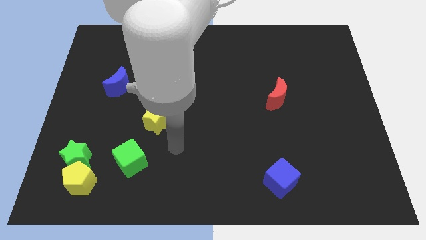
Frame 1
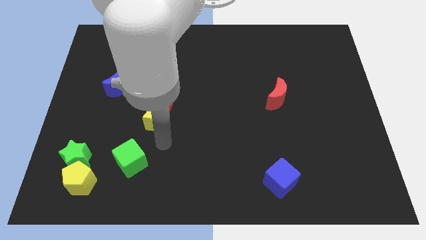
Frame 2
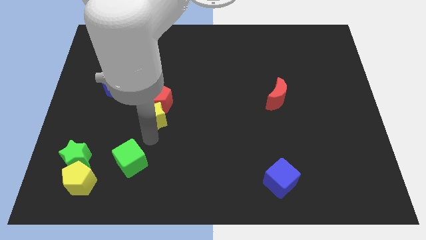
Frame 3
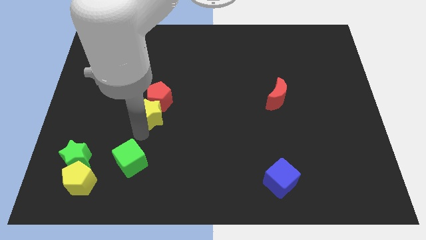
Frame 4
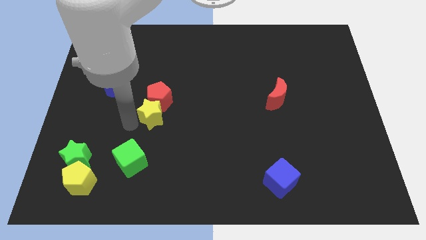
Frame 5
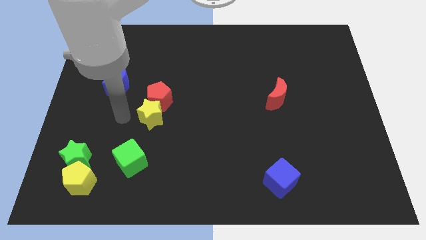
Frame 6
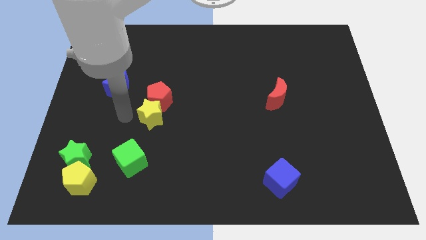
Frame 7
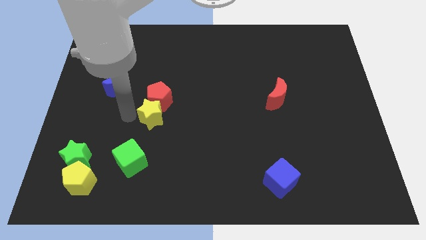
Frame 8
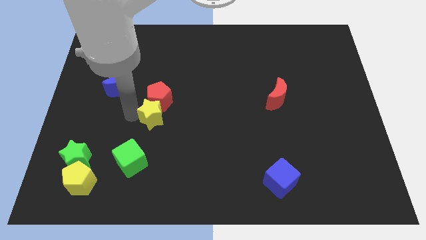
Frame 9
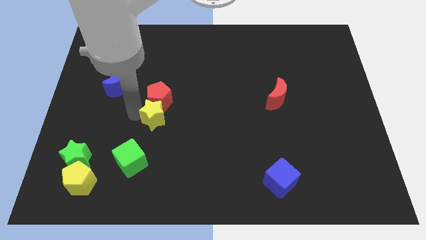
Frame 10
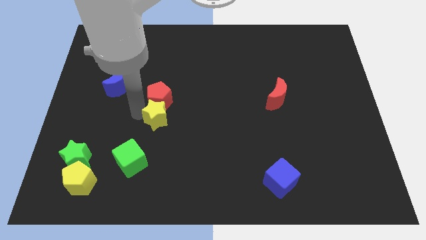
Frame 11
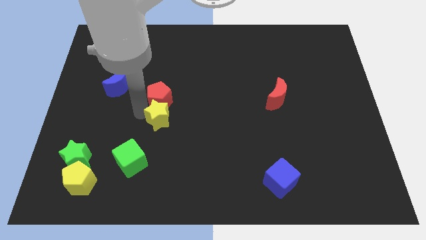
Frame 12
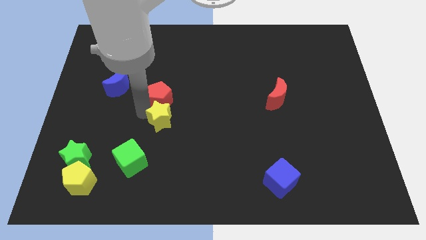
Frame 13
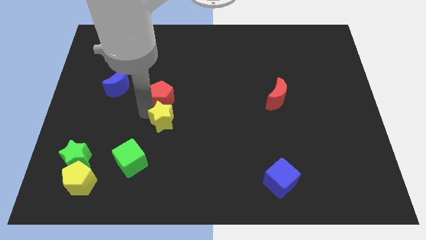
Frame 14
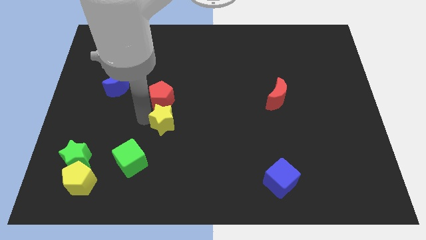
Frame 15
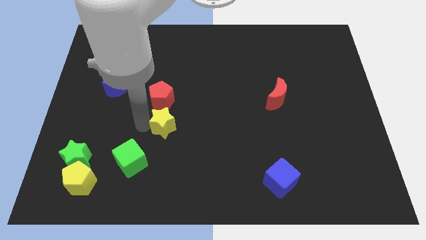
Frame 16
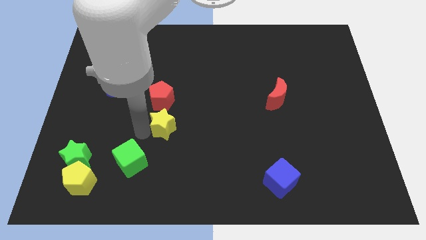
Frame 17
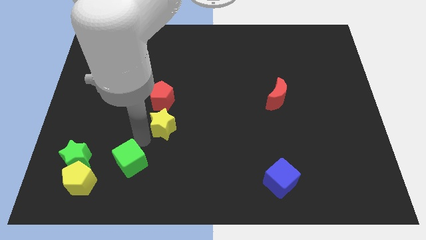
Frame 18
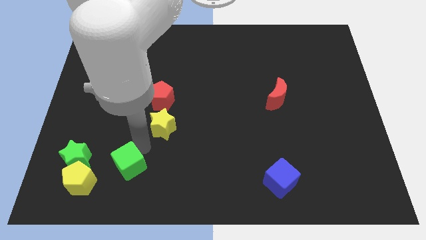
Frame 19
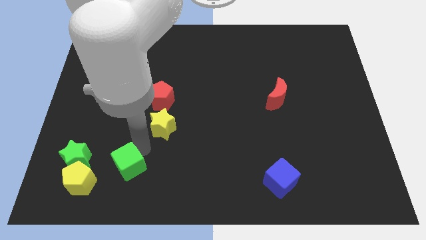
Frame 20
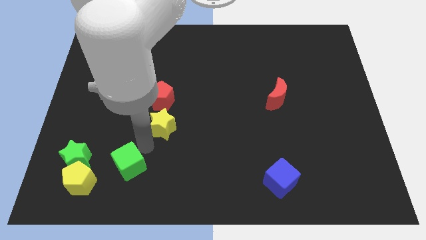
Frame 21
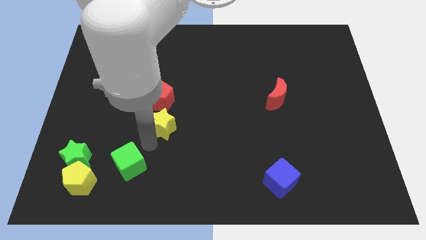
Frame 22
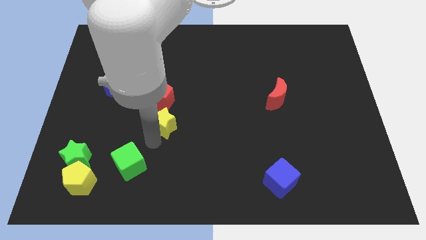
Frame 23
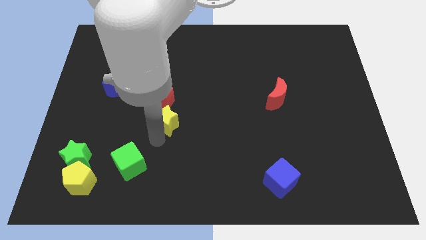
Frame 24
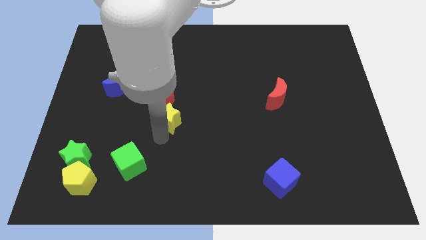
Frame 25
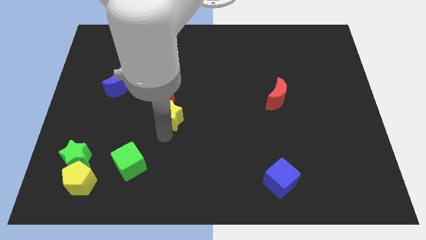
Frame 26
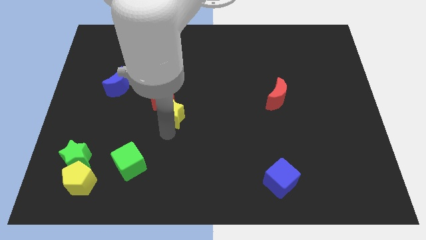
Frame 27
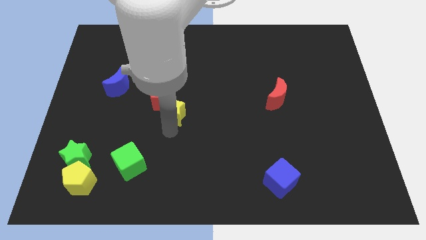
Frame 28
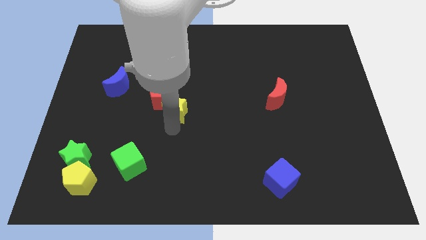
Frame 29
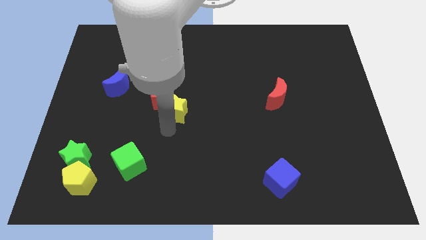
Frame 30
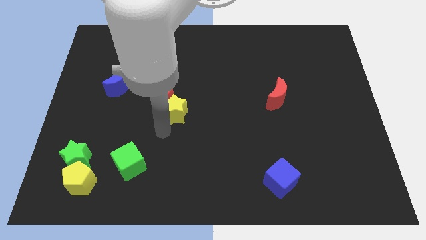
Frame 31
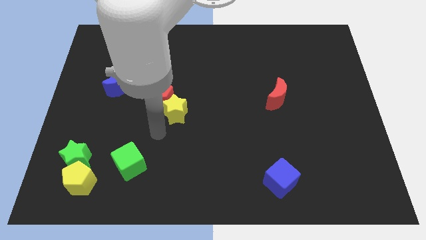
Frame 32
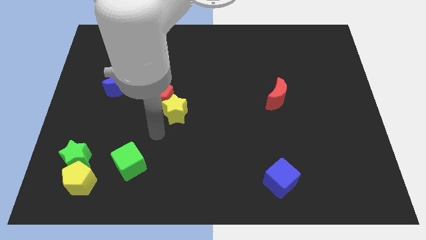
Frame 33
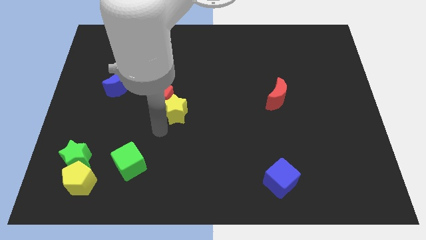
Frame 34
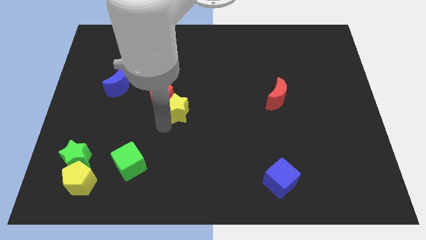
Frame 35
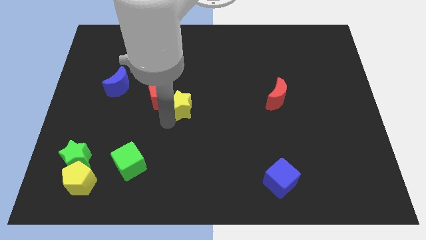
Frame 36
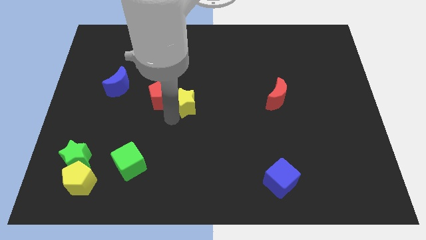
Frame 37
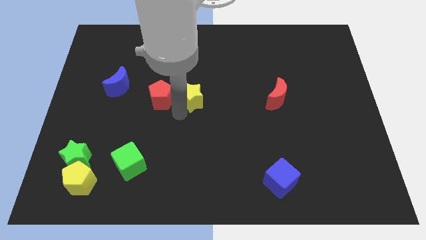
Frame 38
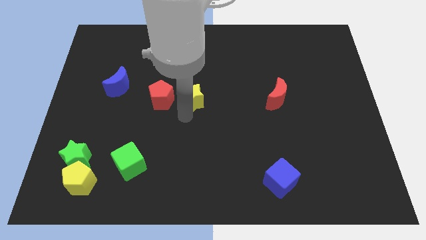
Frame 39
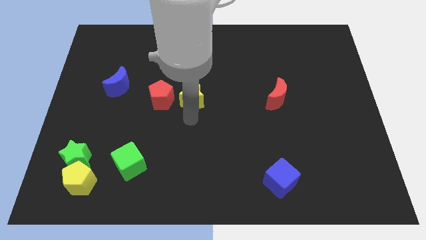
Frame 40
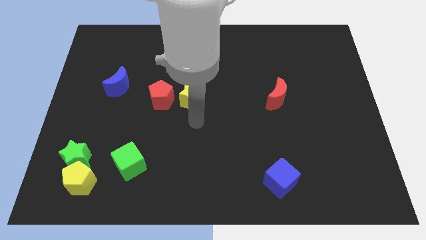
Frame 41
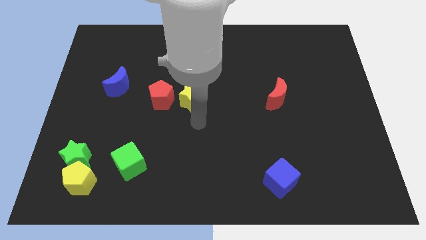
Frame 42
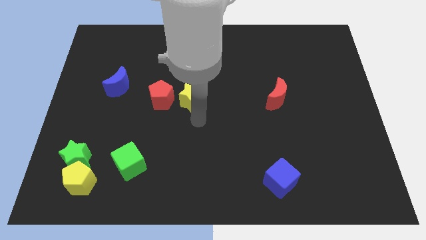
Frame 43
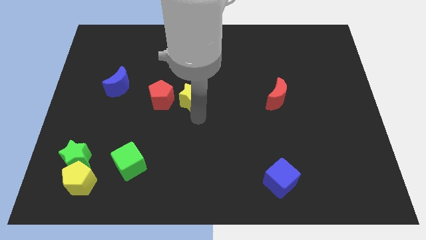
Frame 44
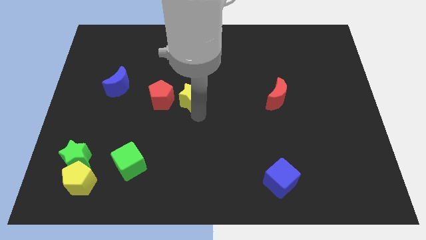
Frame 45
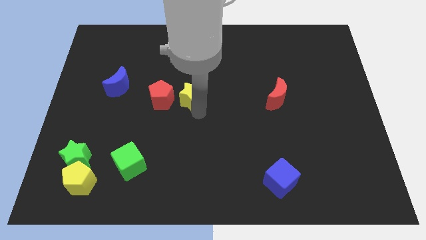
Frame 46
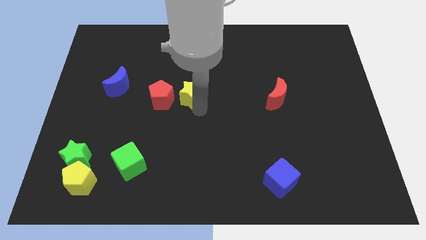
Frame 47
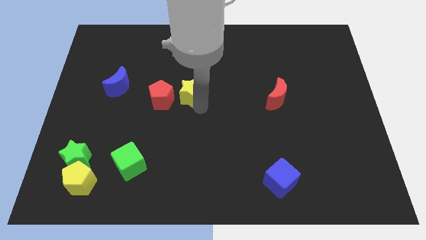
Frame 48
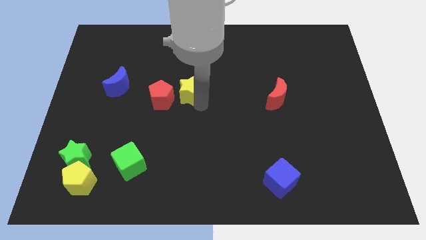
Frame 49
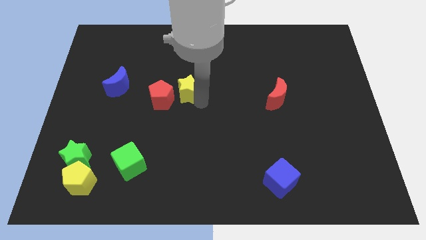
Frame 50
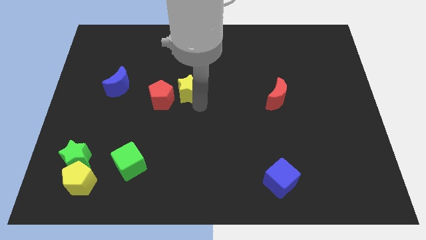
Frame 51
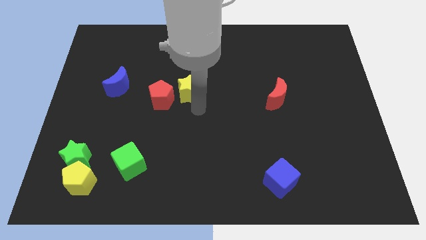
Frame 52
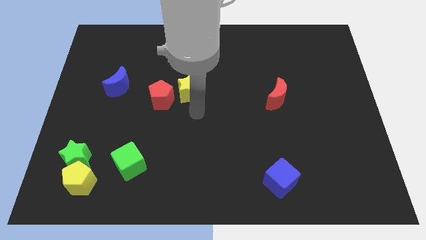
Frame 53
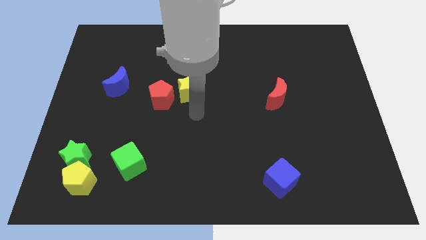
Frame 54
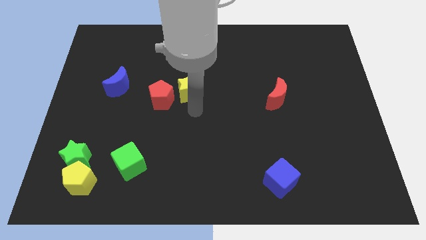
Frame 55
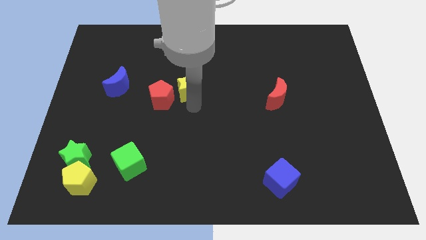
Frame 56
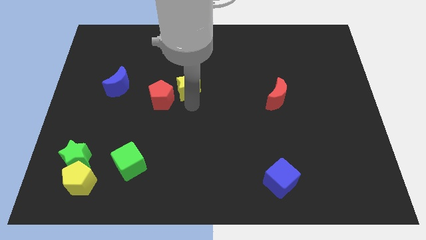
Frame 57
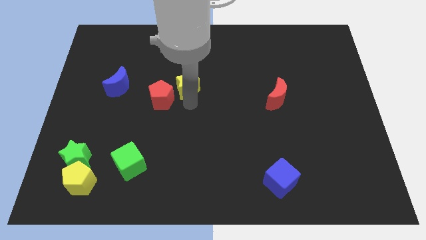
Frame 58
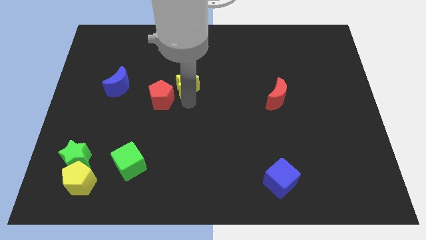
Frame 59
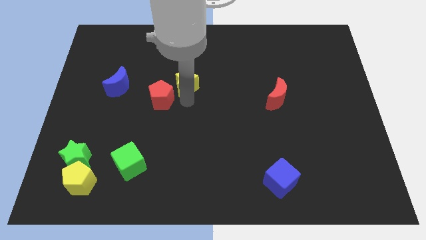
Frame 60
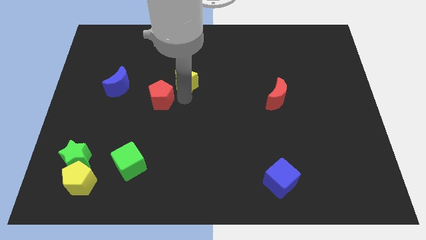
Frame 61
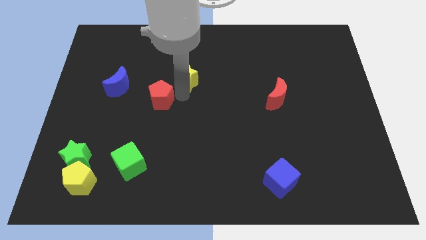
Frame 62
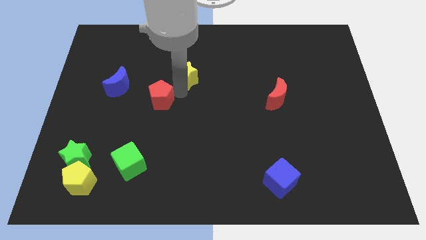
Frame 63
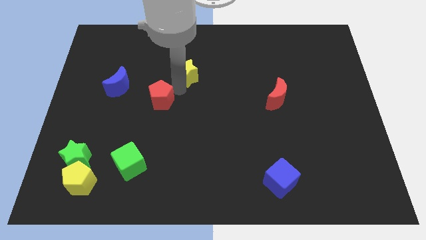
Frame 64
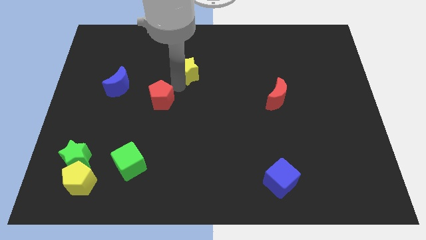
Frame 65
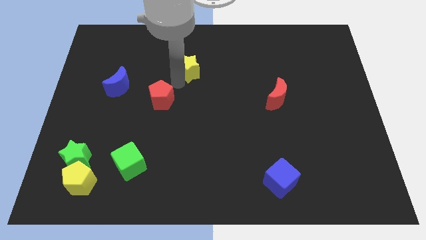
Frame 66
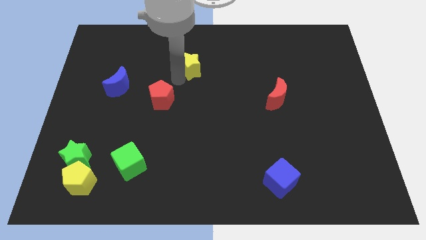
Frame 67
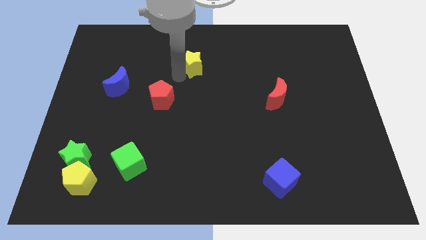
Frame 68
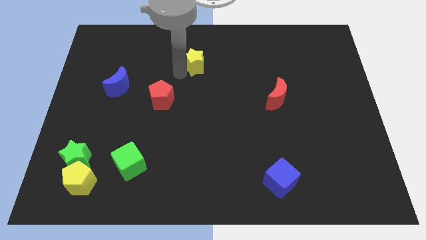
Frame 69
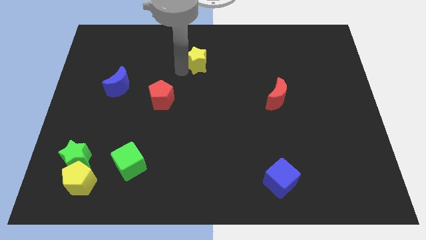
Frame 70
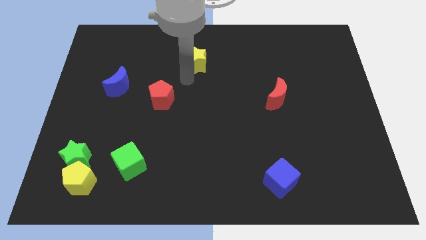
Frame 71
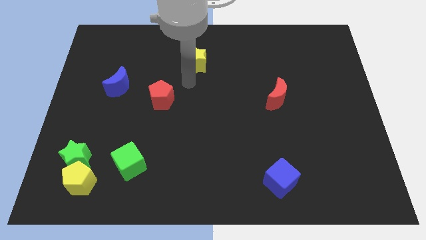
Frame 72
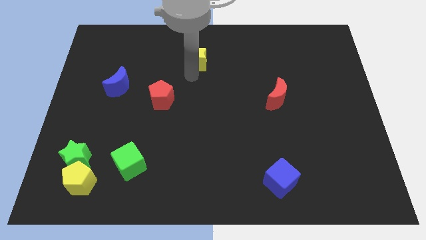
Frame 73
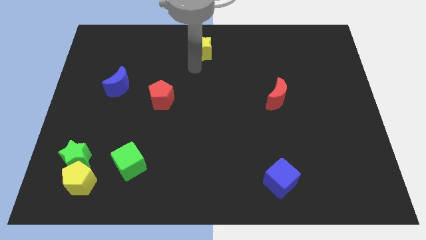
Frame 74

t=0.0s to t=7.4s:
slide the yellow star to the top
